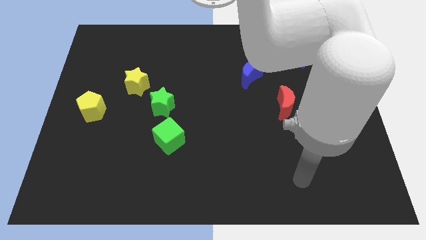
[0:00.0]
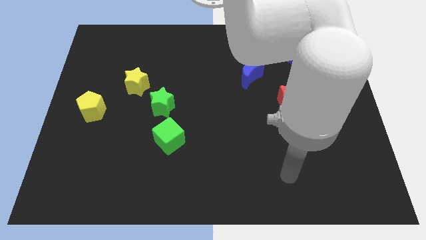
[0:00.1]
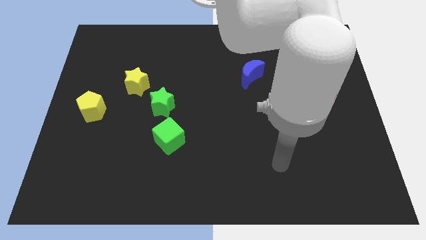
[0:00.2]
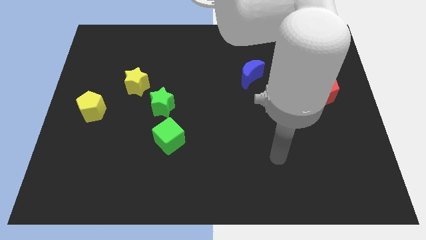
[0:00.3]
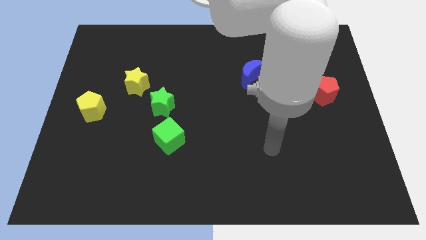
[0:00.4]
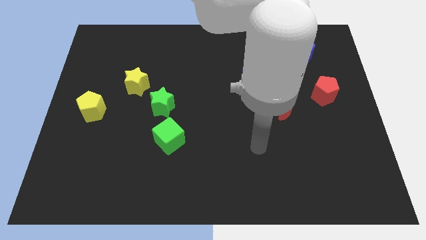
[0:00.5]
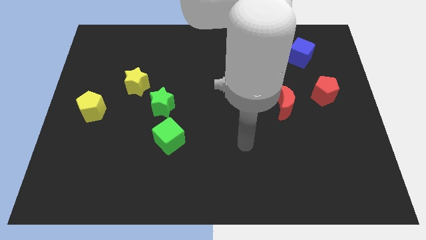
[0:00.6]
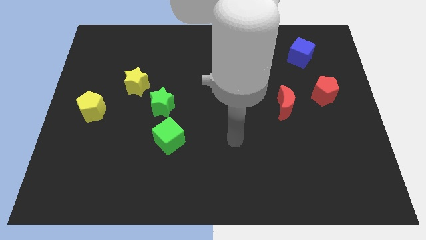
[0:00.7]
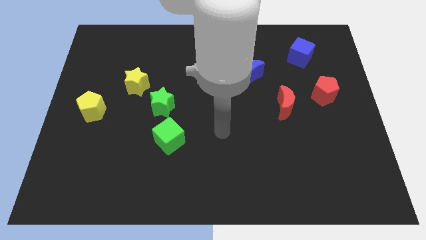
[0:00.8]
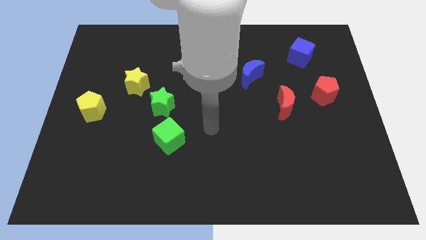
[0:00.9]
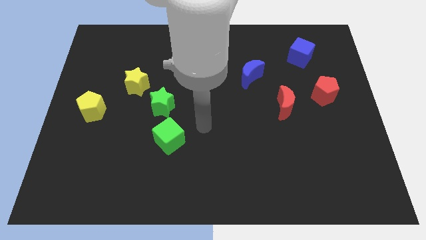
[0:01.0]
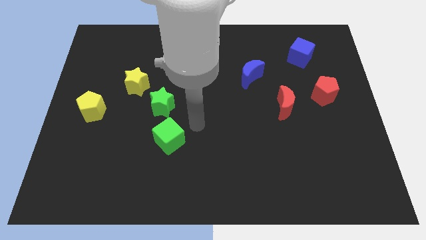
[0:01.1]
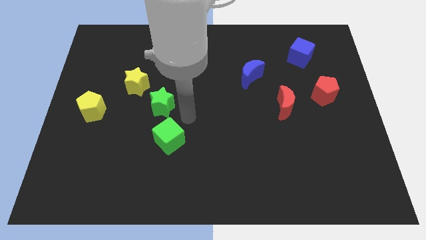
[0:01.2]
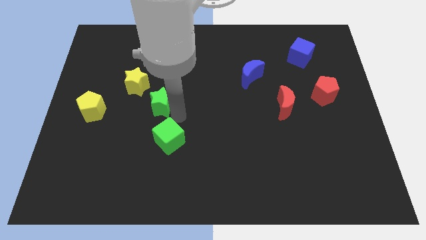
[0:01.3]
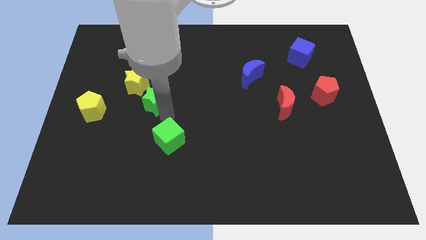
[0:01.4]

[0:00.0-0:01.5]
move the green cube away from the green star

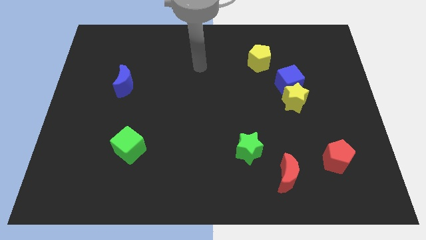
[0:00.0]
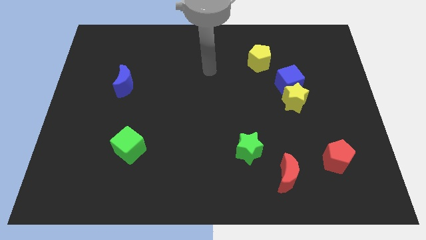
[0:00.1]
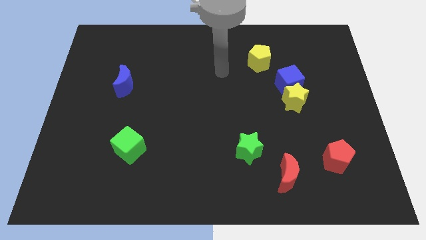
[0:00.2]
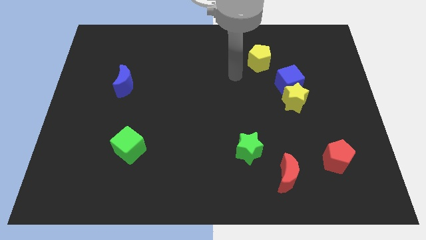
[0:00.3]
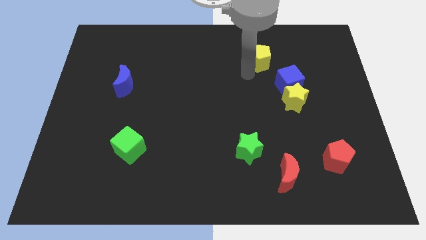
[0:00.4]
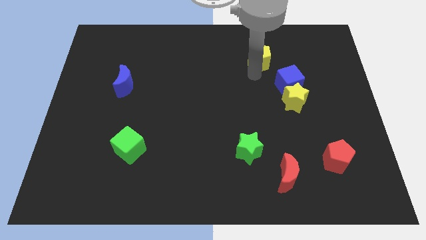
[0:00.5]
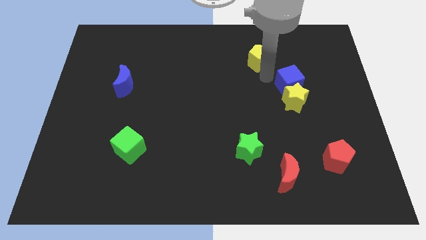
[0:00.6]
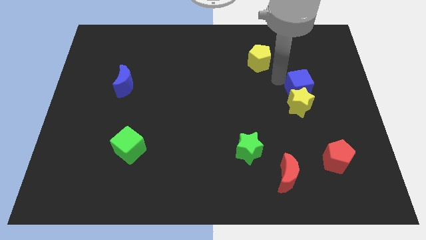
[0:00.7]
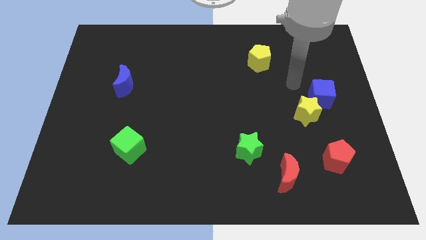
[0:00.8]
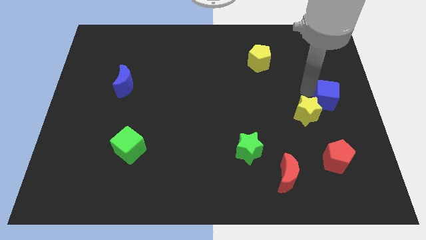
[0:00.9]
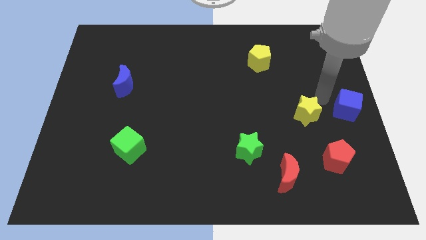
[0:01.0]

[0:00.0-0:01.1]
move the yellow star away from the blue cube

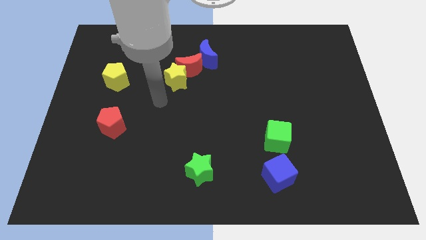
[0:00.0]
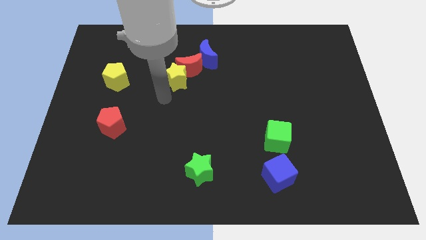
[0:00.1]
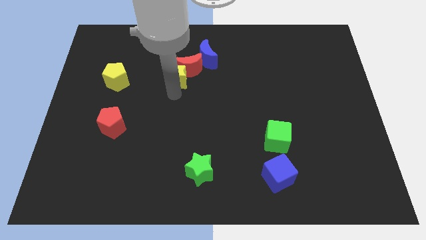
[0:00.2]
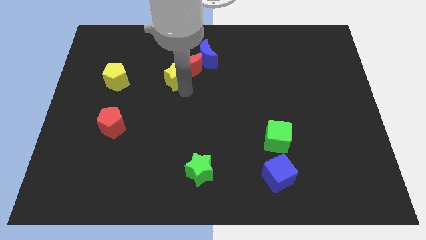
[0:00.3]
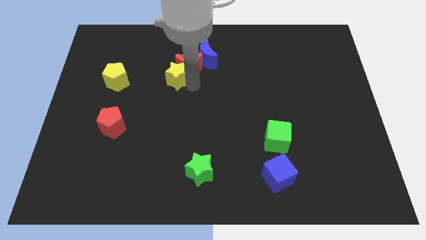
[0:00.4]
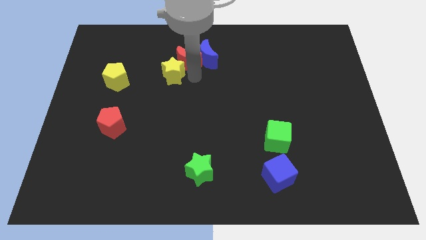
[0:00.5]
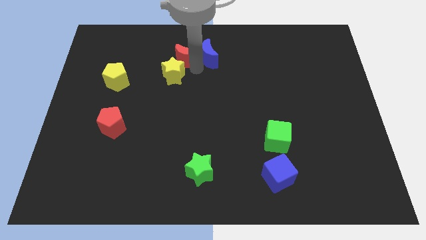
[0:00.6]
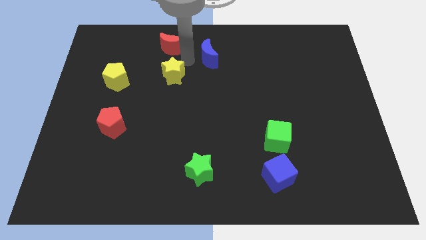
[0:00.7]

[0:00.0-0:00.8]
move the yellow star away from the red moon

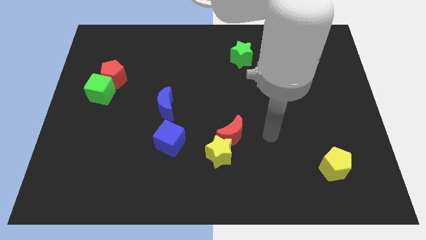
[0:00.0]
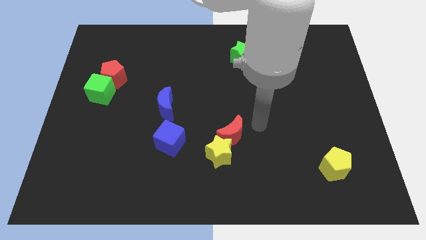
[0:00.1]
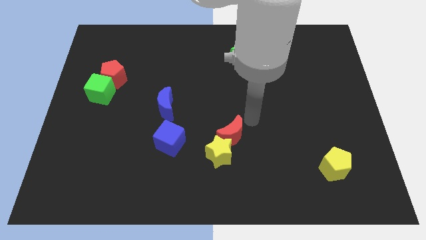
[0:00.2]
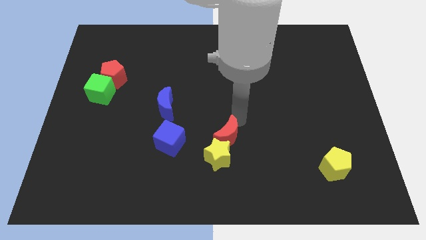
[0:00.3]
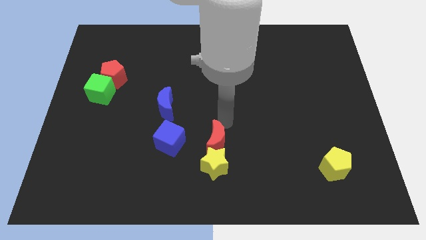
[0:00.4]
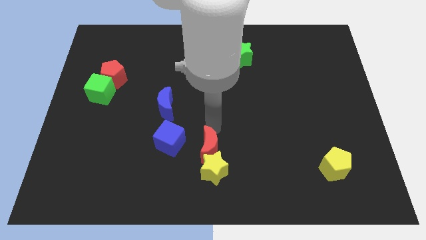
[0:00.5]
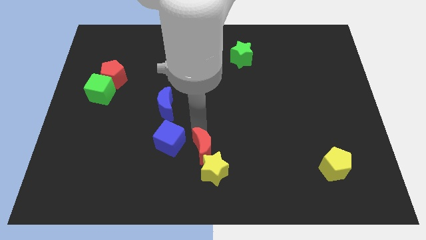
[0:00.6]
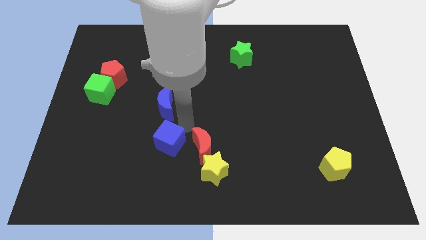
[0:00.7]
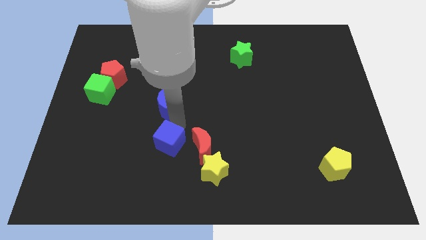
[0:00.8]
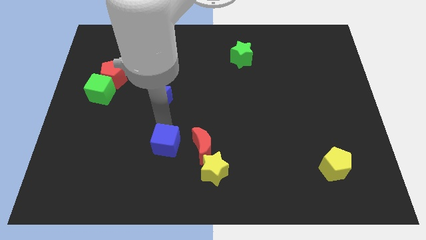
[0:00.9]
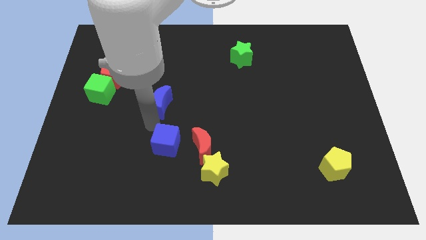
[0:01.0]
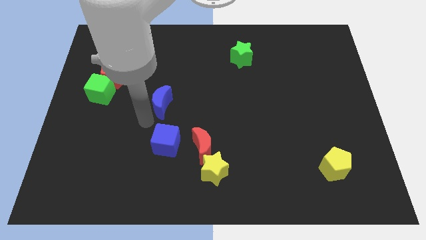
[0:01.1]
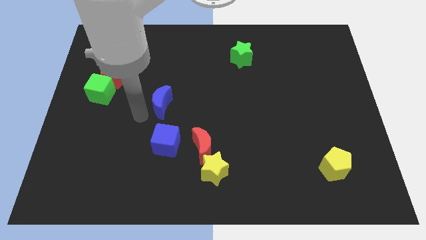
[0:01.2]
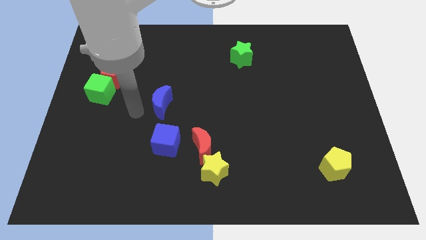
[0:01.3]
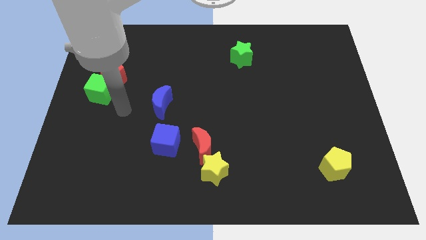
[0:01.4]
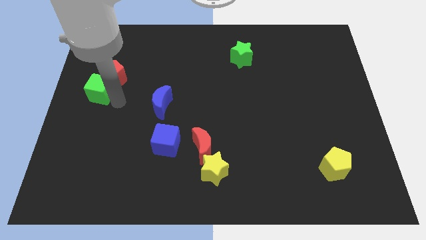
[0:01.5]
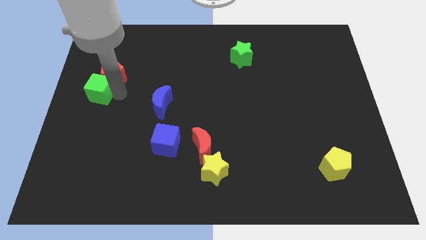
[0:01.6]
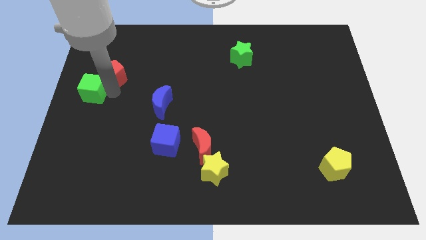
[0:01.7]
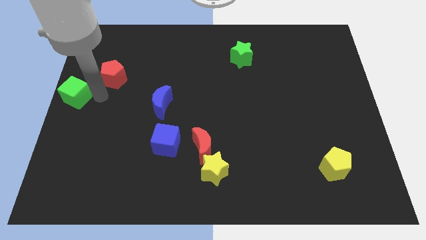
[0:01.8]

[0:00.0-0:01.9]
move the red pentagon away from the green cube

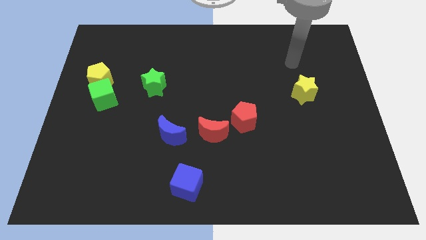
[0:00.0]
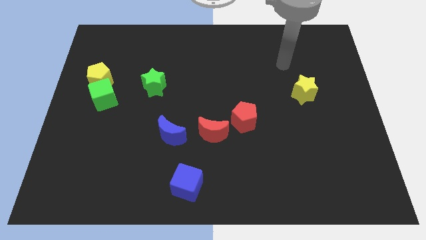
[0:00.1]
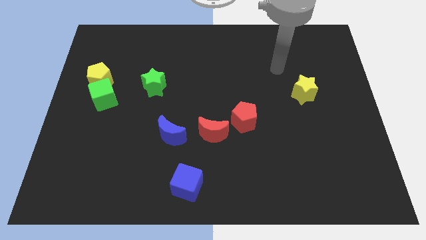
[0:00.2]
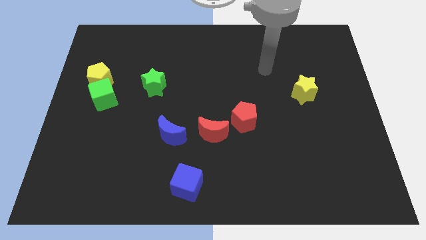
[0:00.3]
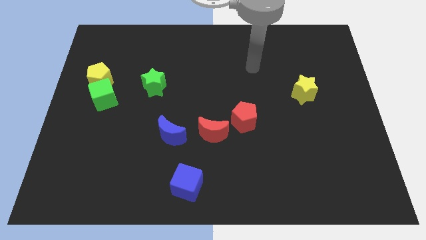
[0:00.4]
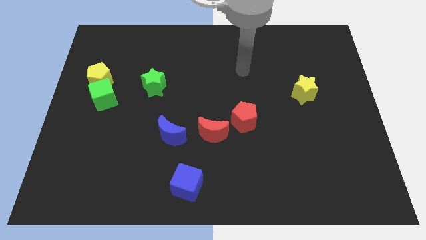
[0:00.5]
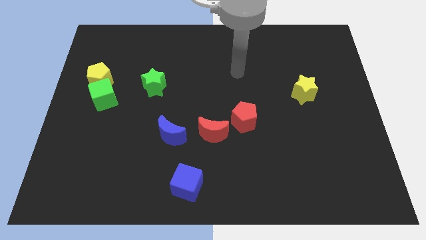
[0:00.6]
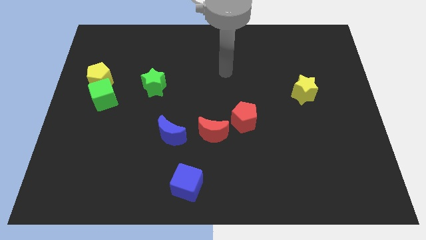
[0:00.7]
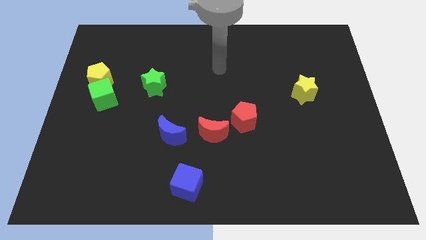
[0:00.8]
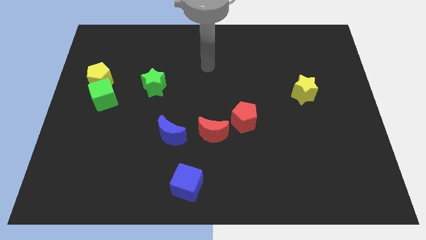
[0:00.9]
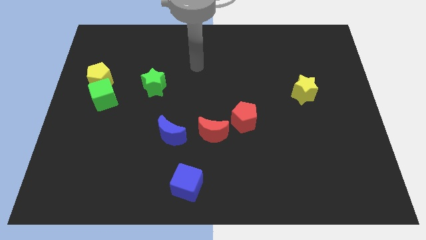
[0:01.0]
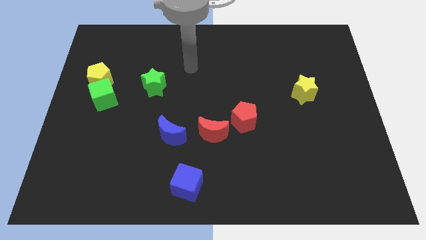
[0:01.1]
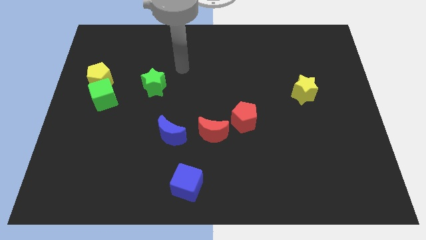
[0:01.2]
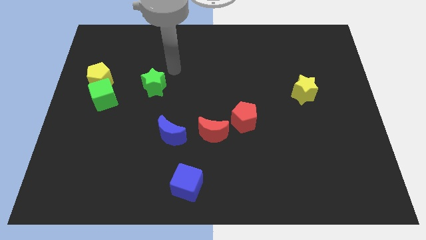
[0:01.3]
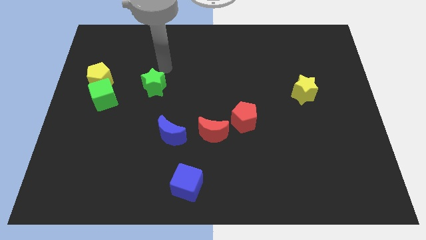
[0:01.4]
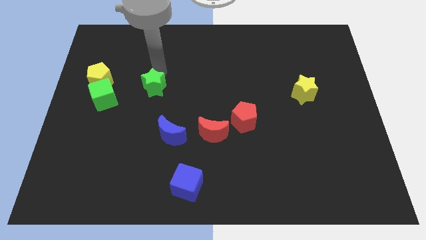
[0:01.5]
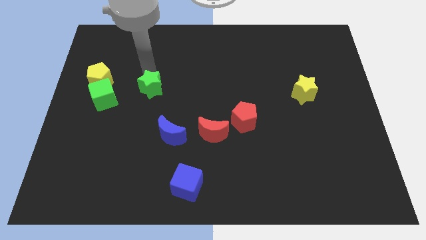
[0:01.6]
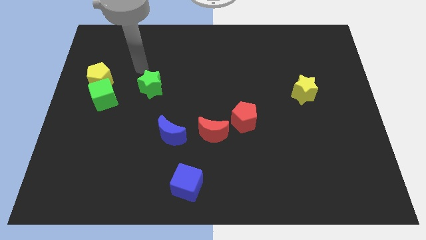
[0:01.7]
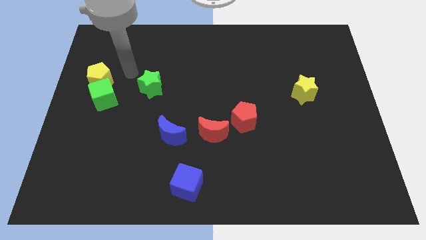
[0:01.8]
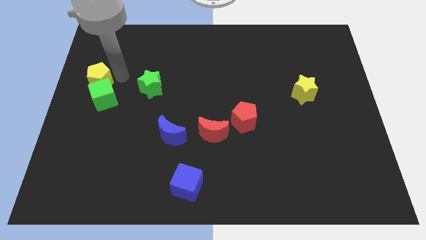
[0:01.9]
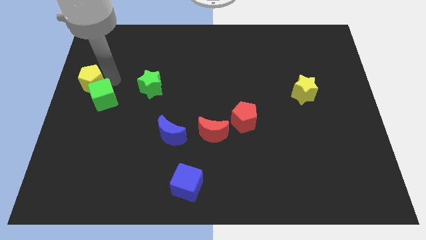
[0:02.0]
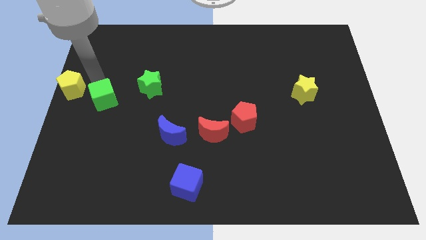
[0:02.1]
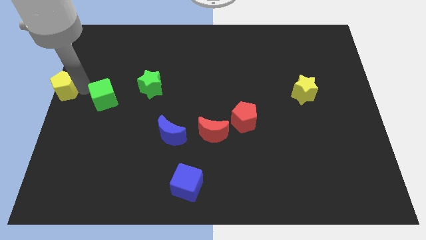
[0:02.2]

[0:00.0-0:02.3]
move the green cube away from the yellow pentagon

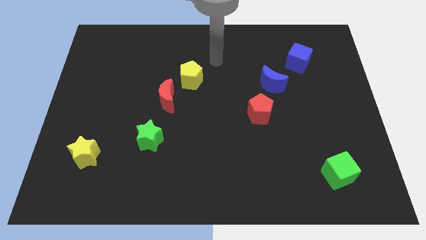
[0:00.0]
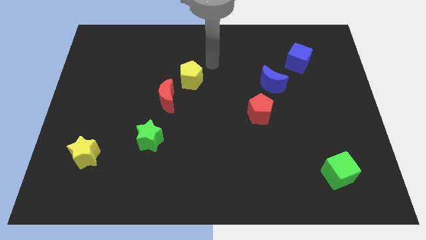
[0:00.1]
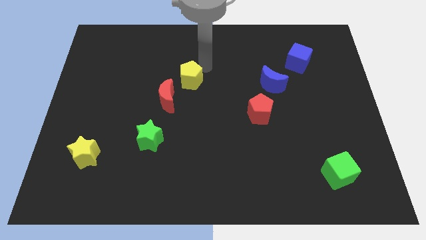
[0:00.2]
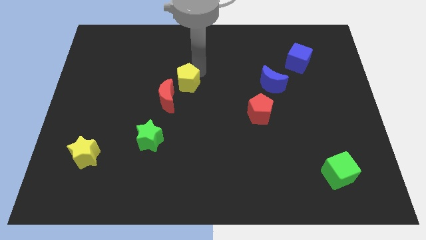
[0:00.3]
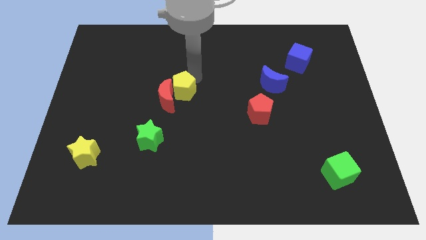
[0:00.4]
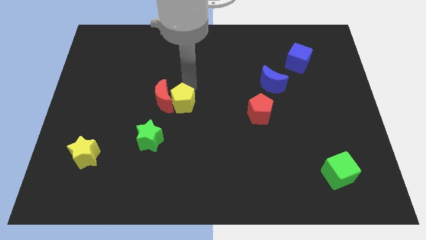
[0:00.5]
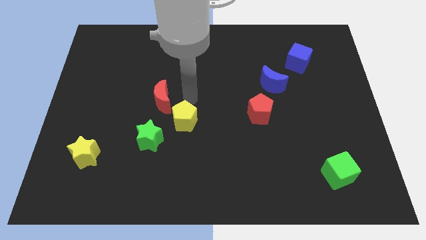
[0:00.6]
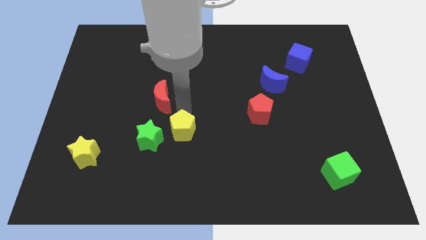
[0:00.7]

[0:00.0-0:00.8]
separate the red moon from the yellow pentagon

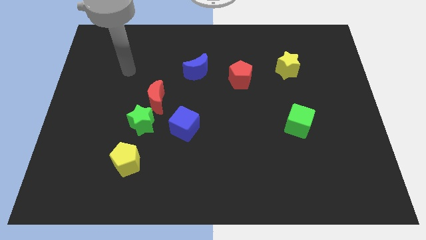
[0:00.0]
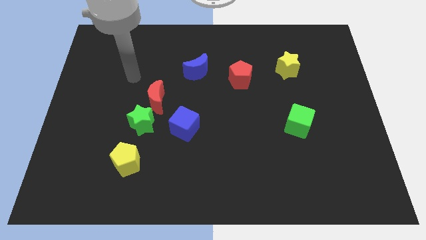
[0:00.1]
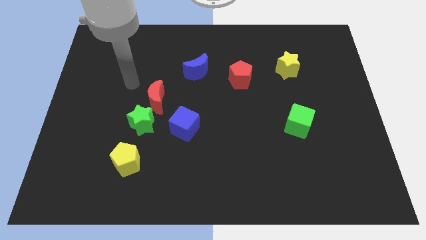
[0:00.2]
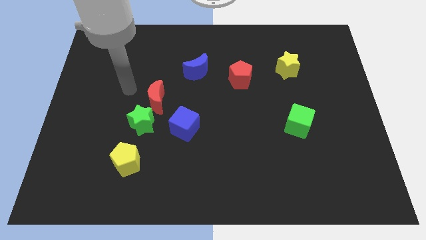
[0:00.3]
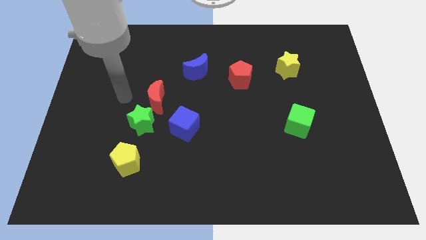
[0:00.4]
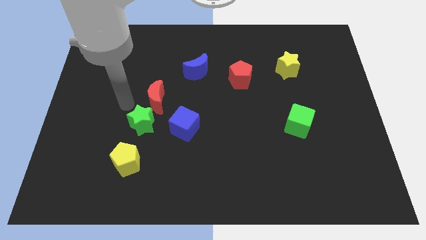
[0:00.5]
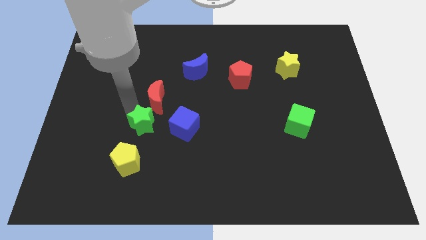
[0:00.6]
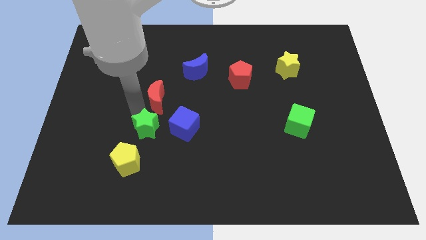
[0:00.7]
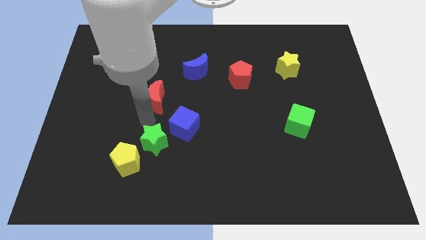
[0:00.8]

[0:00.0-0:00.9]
separate the red moon from the green star
